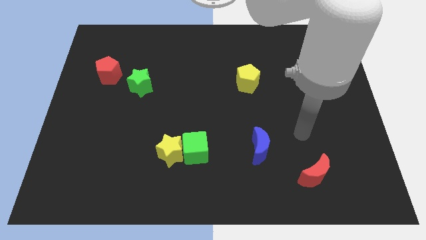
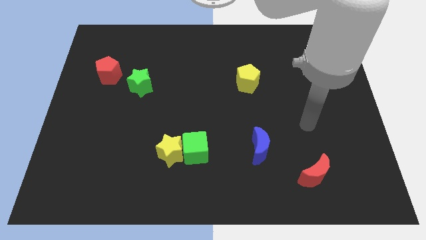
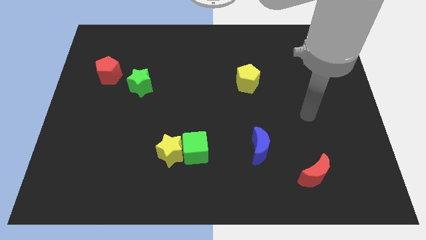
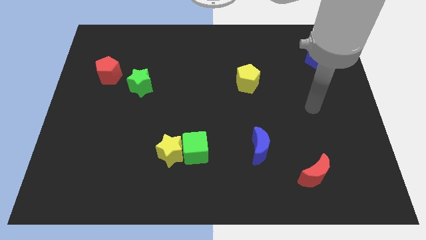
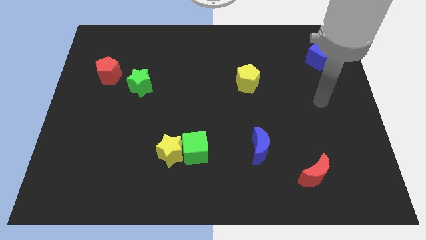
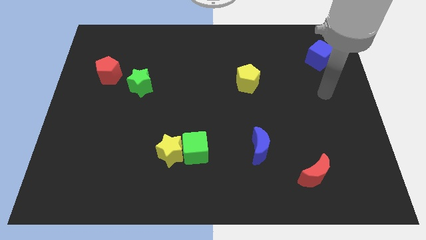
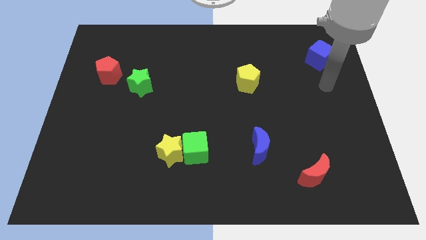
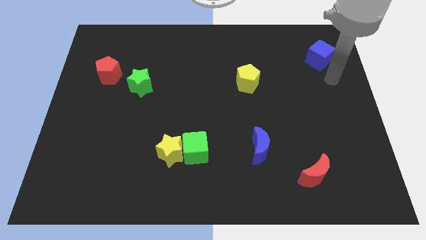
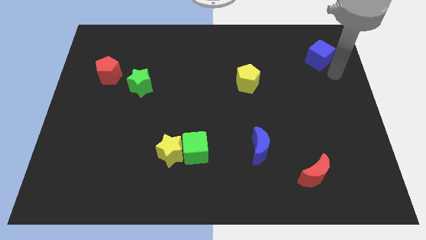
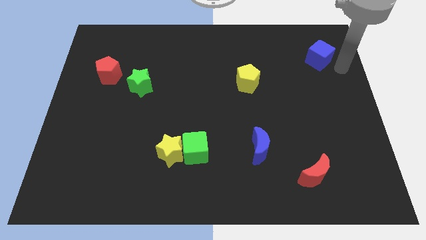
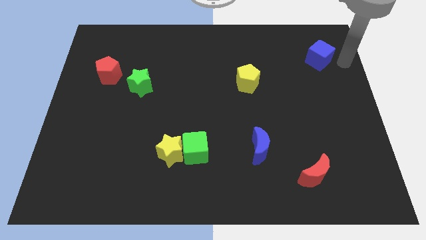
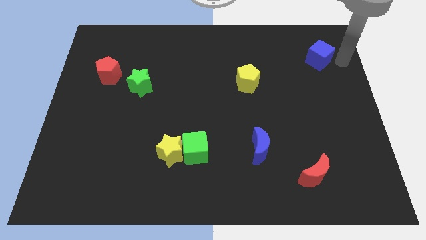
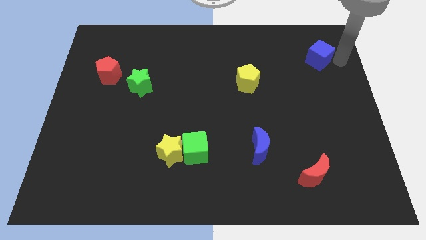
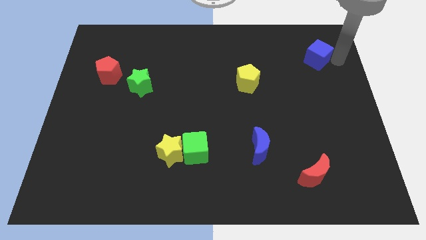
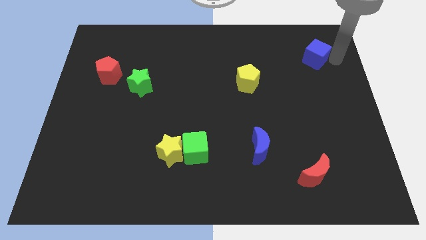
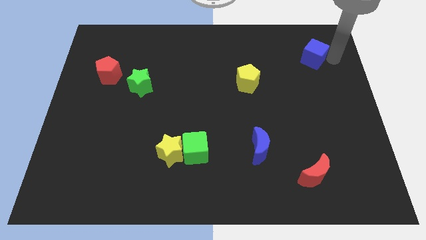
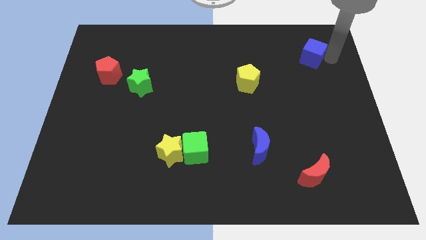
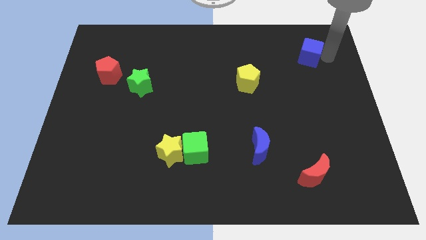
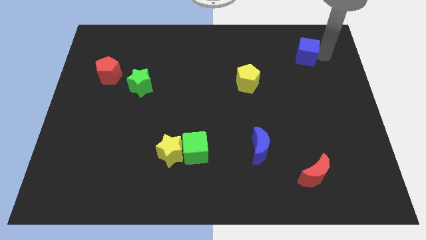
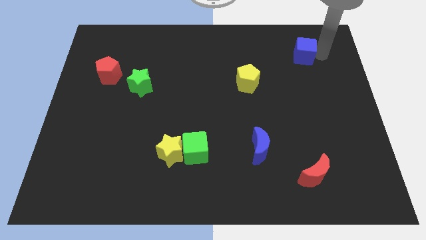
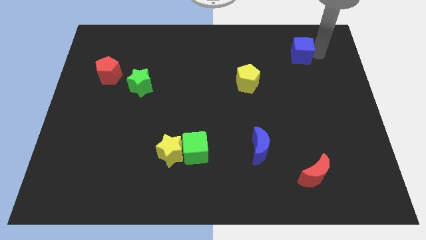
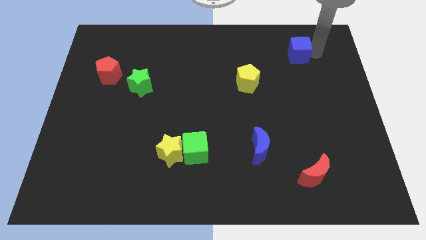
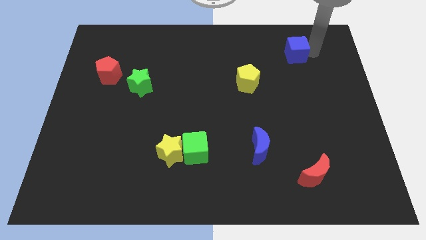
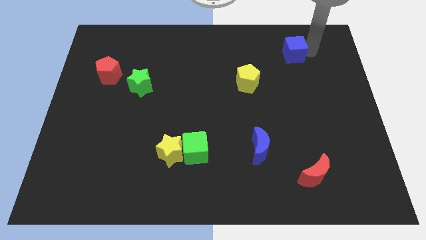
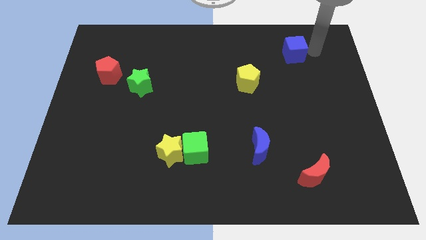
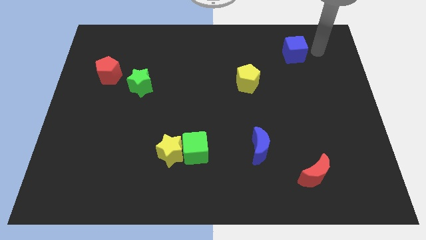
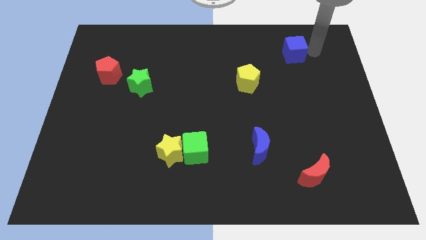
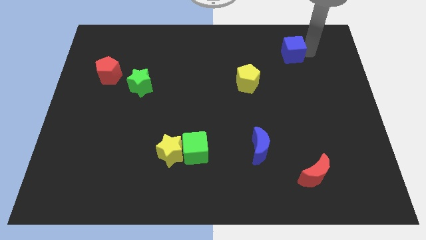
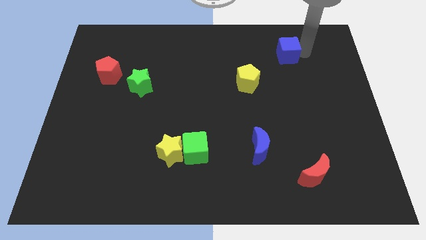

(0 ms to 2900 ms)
slightly push the blue cube left

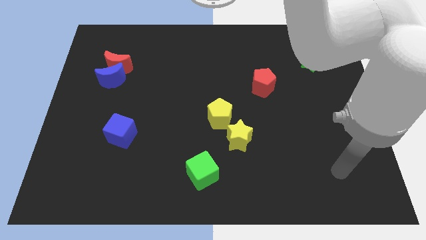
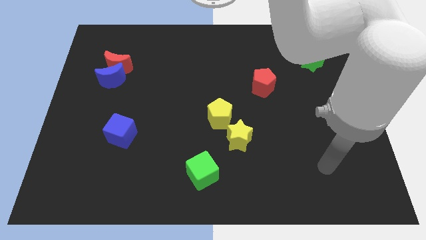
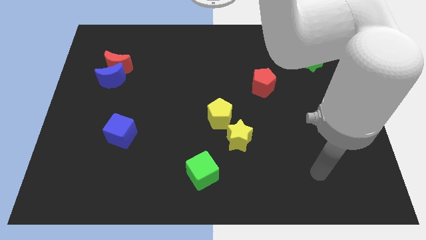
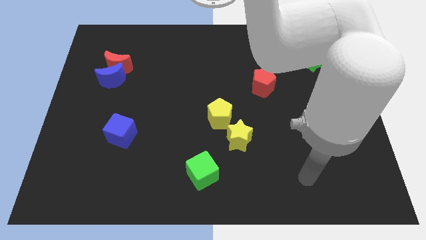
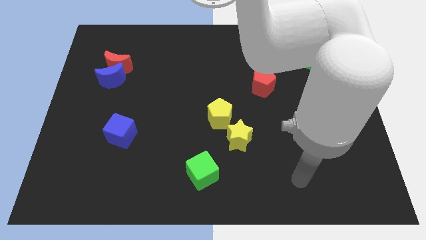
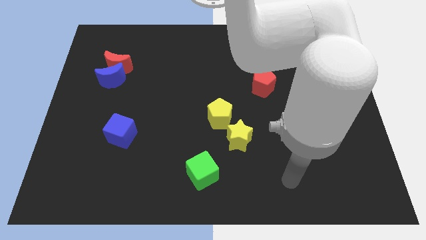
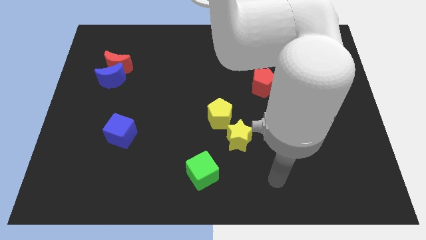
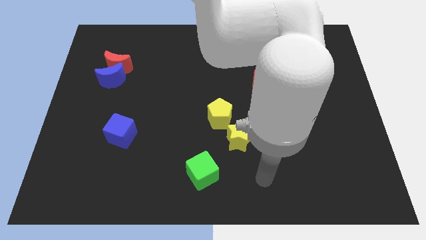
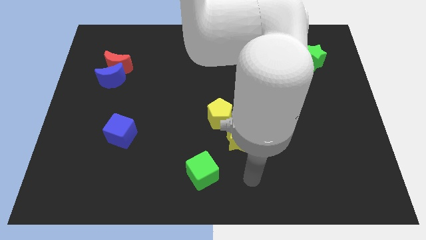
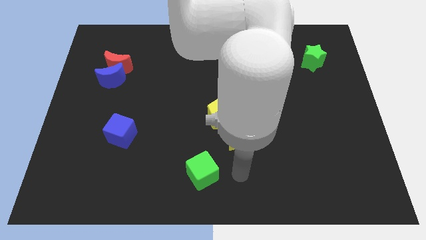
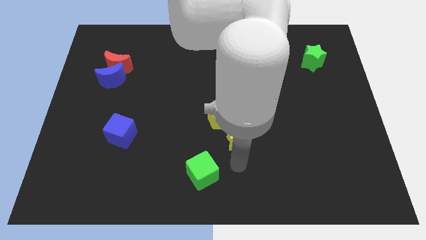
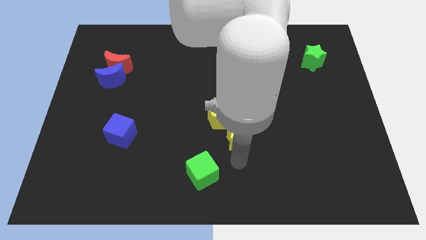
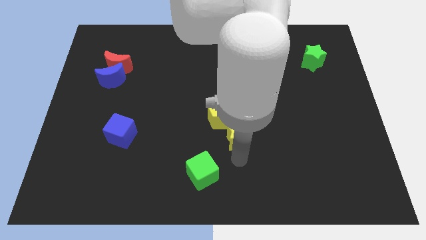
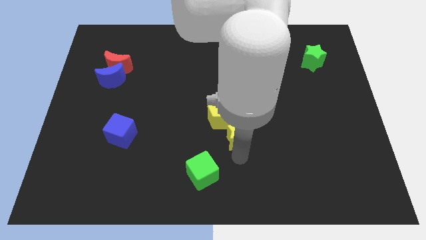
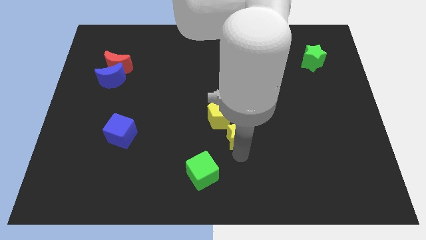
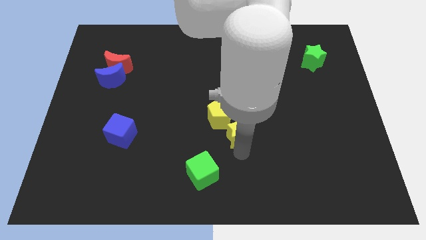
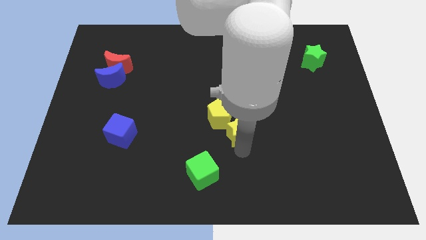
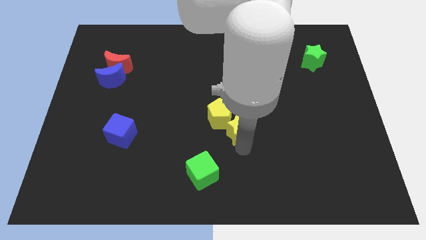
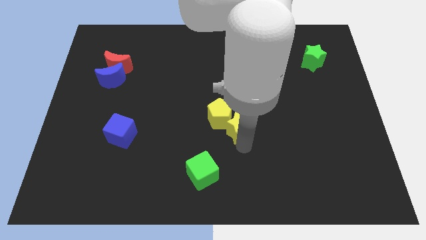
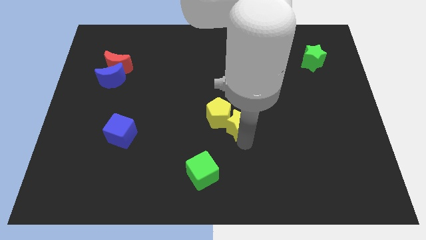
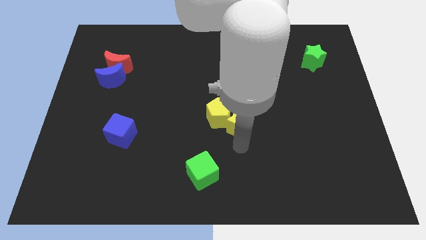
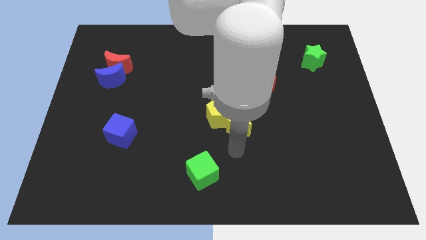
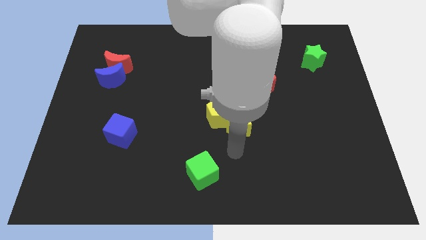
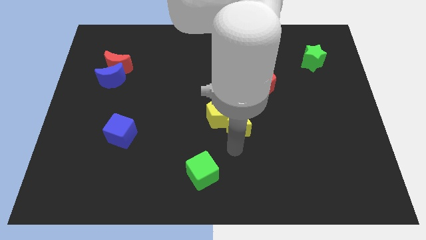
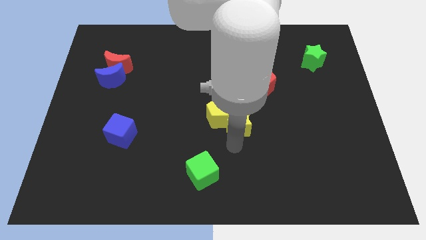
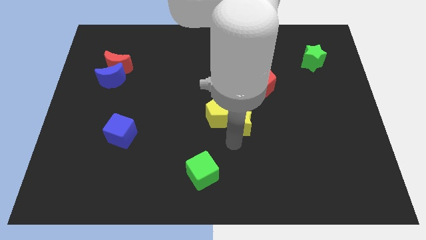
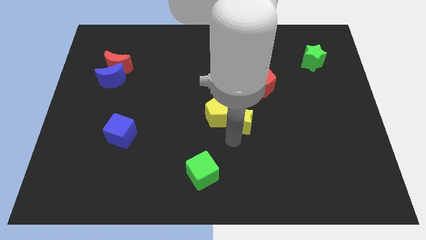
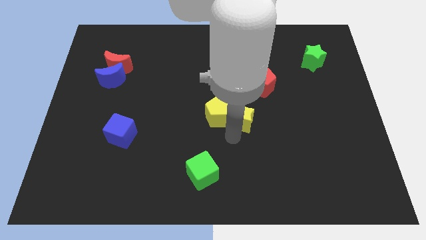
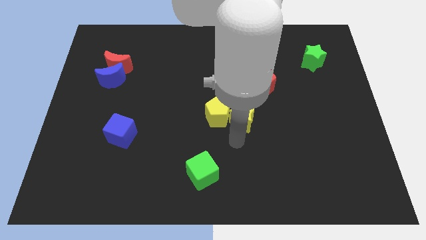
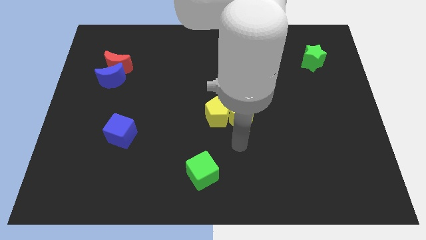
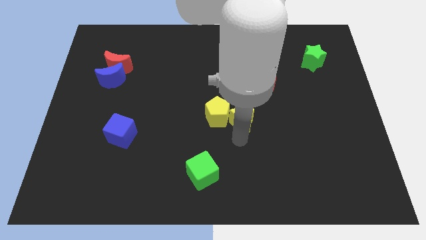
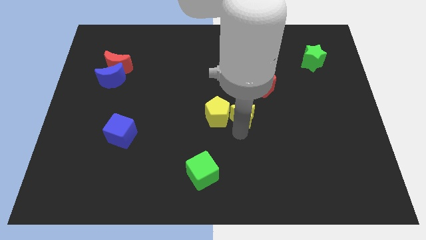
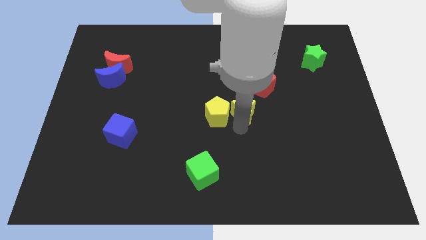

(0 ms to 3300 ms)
move the yellow star somewhat up

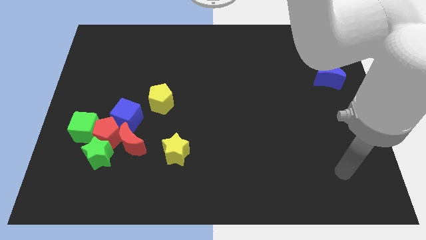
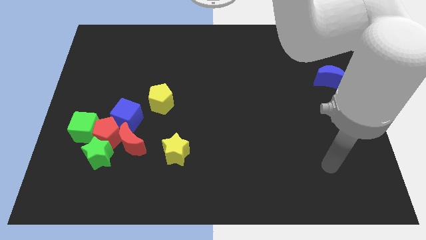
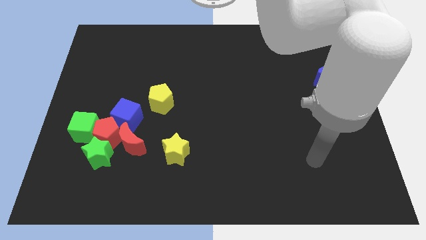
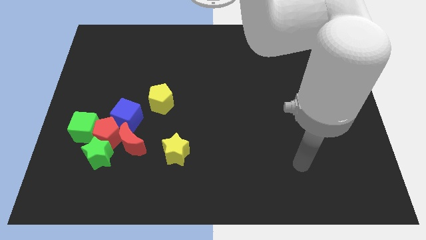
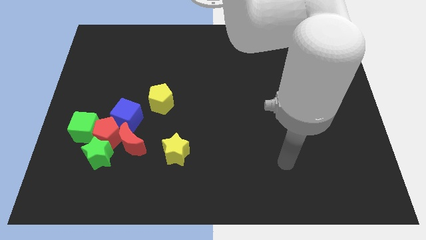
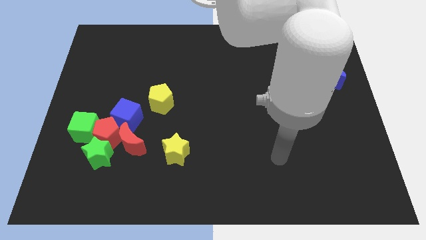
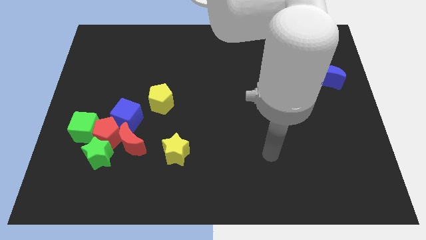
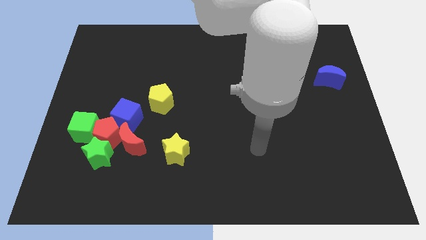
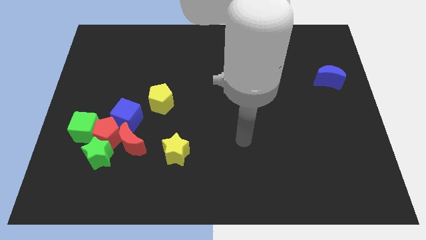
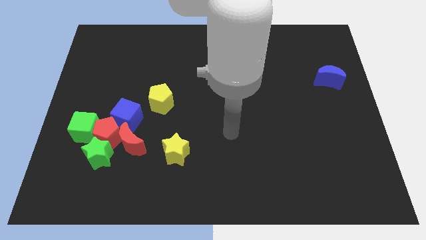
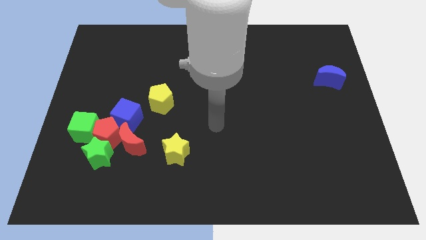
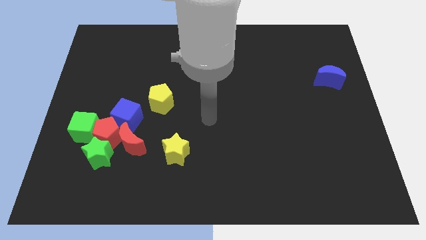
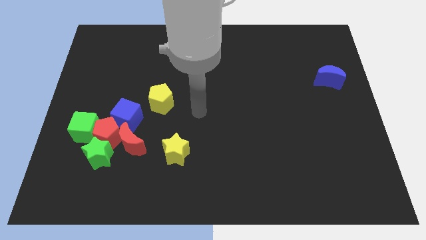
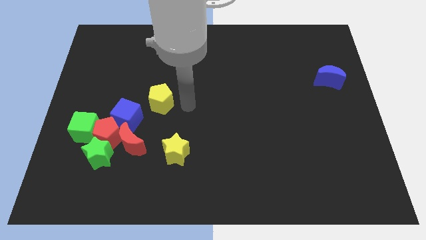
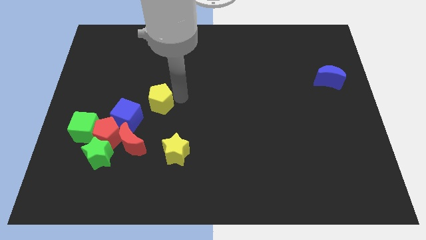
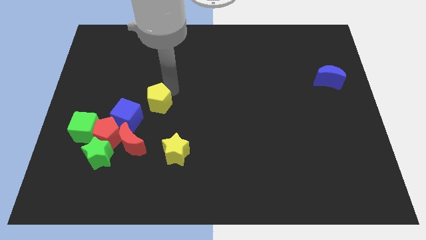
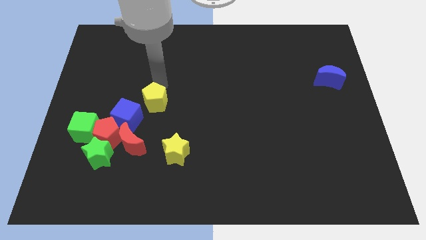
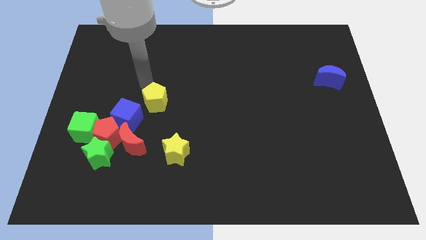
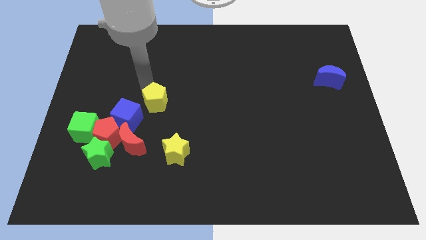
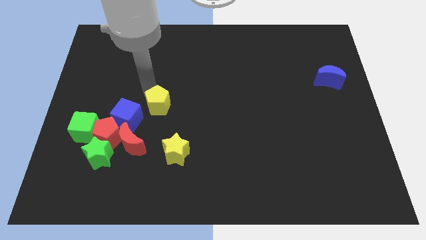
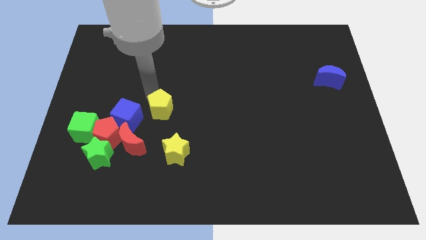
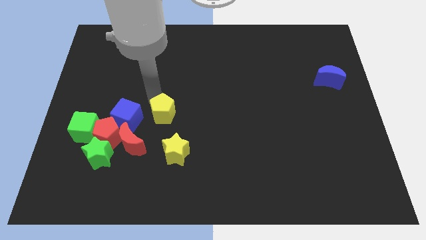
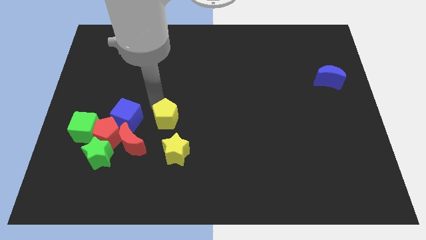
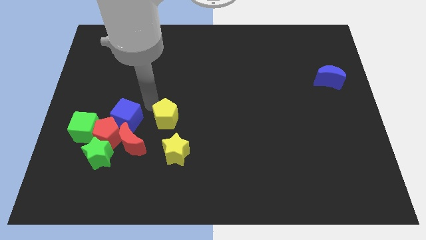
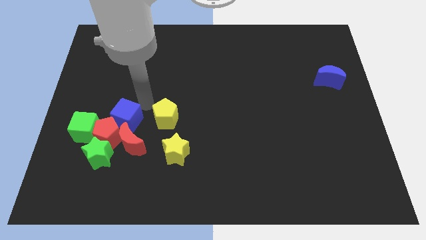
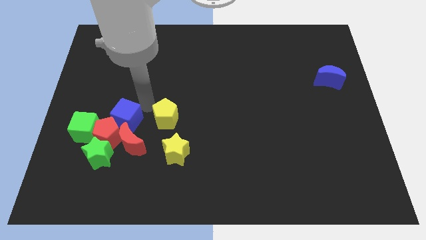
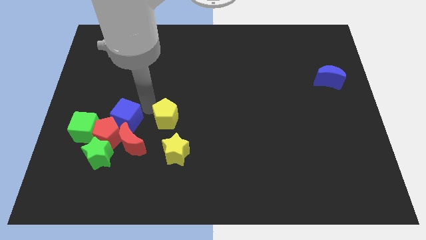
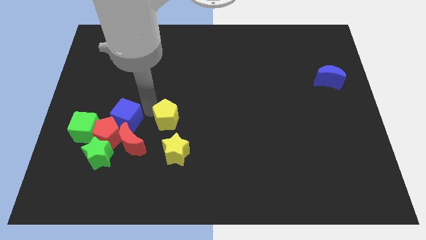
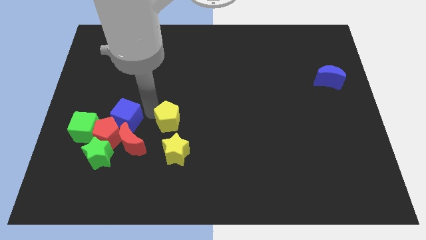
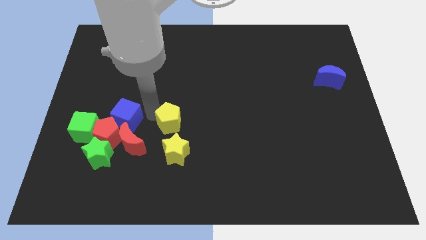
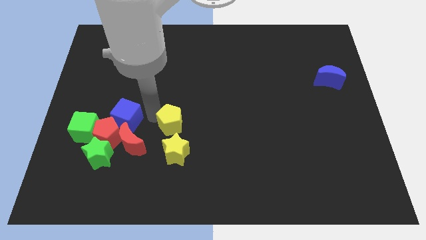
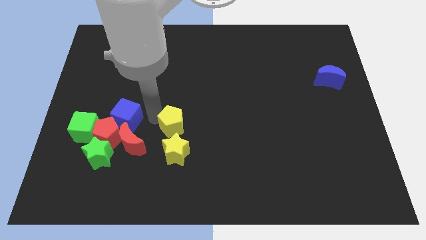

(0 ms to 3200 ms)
slightly push the yellow pentagon downwards and then to the right
